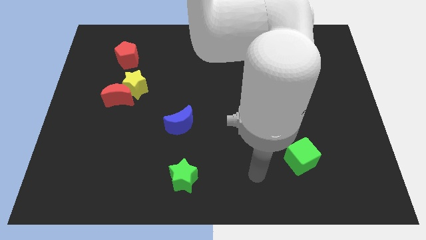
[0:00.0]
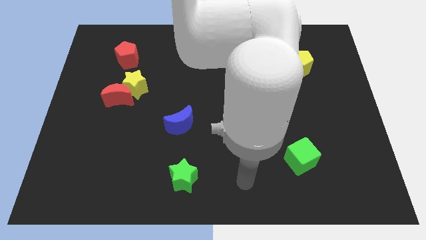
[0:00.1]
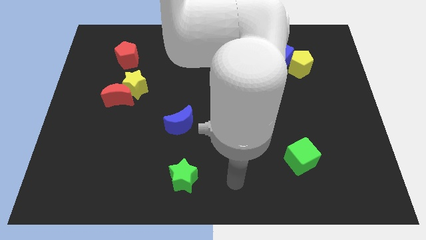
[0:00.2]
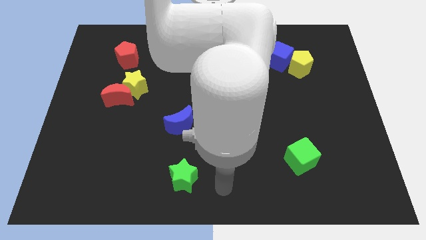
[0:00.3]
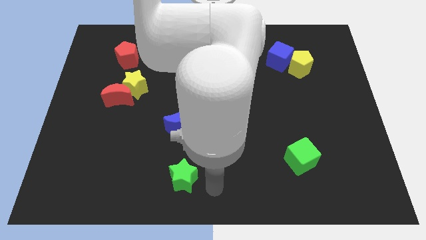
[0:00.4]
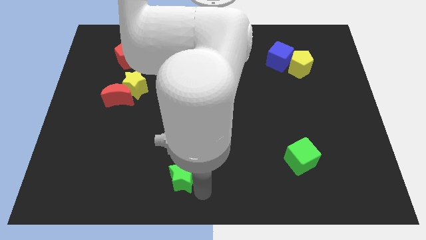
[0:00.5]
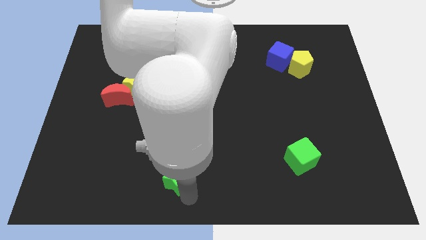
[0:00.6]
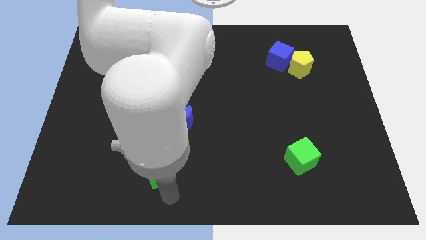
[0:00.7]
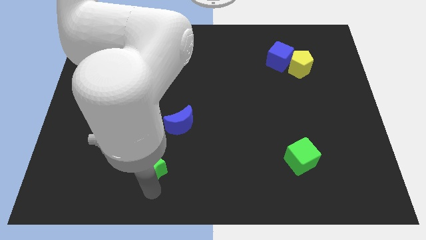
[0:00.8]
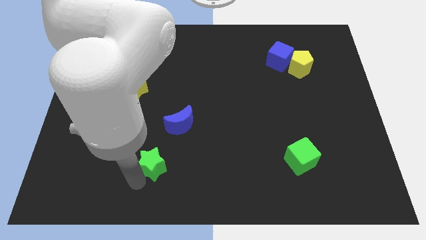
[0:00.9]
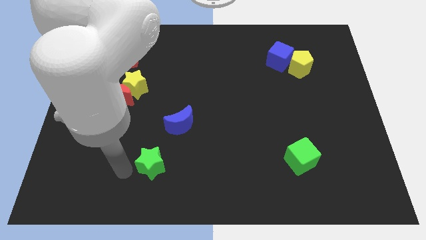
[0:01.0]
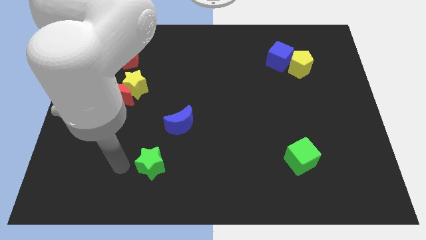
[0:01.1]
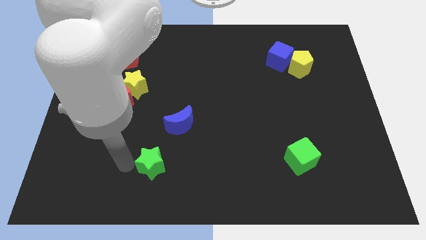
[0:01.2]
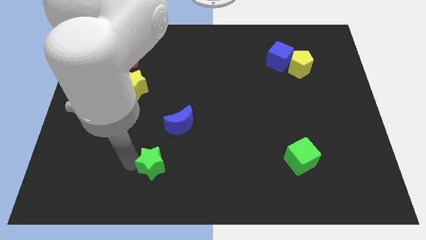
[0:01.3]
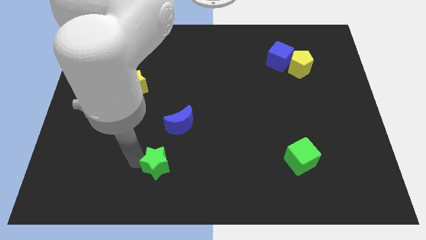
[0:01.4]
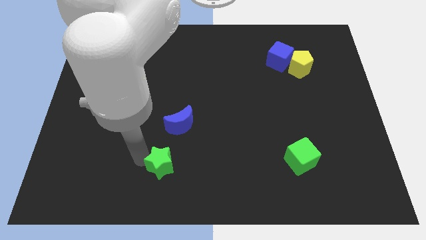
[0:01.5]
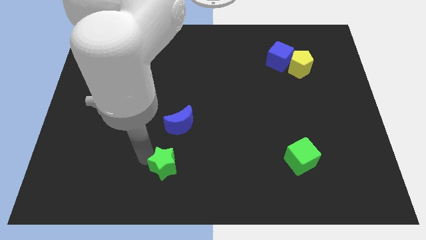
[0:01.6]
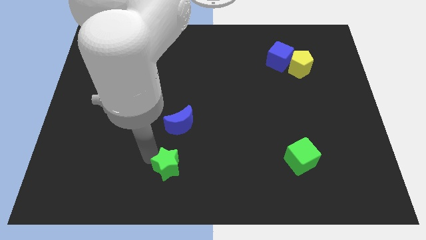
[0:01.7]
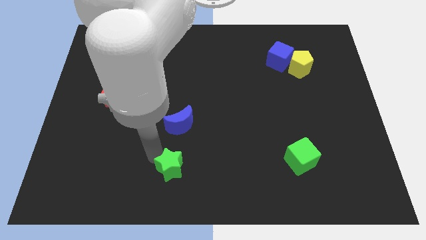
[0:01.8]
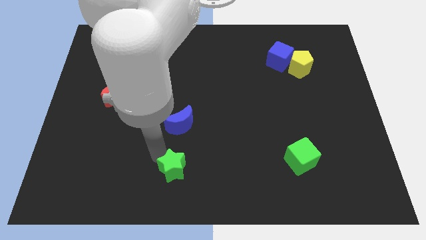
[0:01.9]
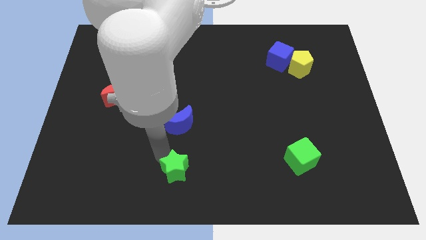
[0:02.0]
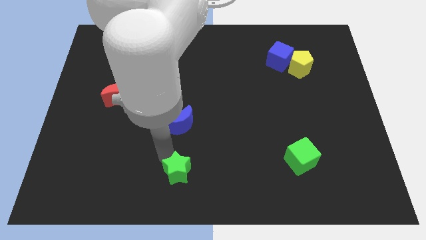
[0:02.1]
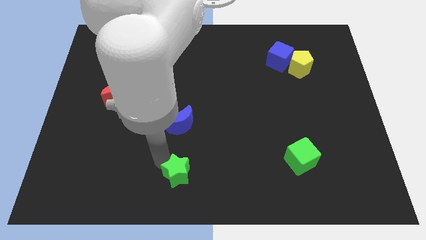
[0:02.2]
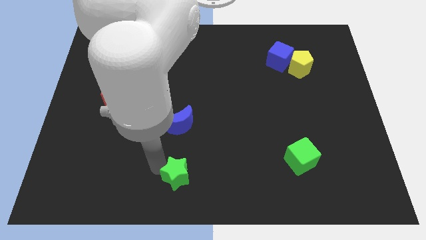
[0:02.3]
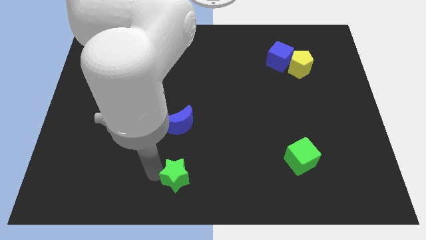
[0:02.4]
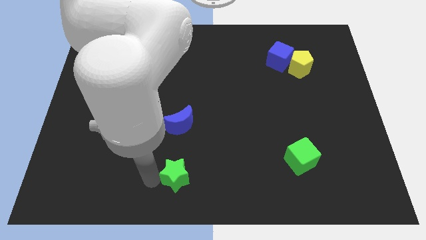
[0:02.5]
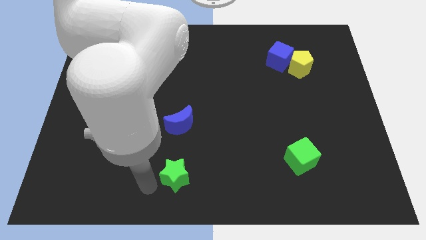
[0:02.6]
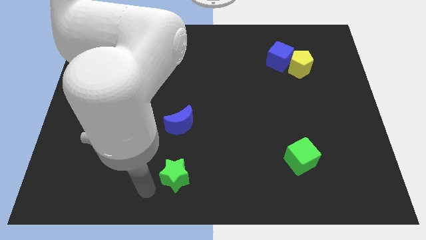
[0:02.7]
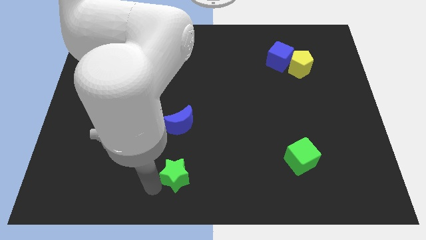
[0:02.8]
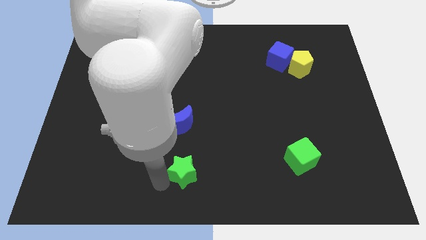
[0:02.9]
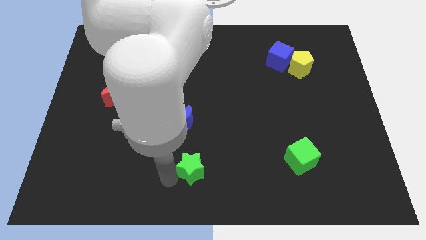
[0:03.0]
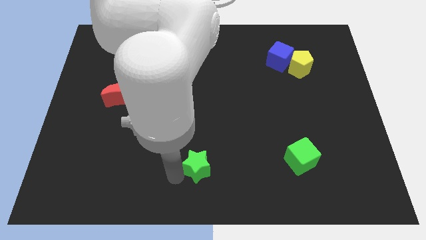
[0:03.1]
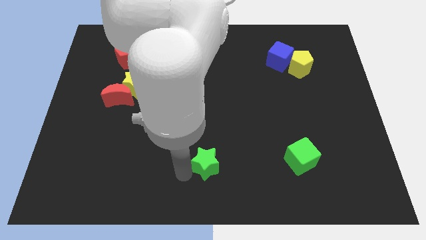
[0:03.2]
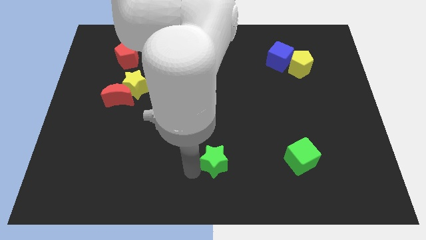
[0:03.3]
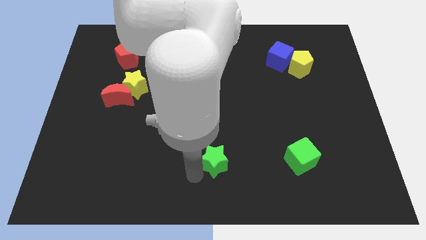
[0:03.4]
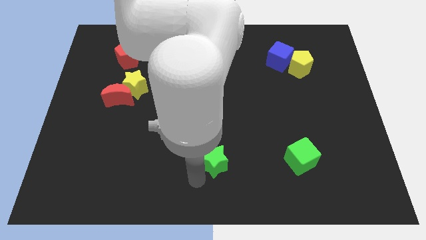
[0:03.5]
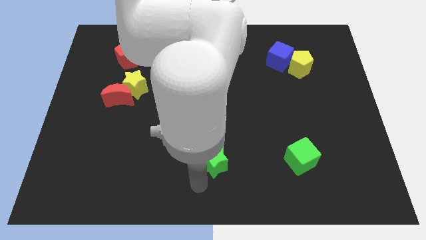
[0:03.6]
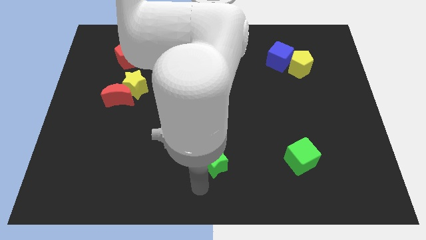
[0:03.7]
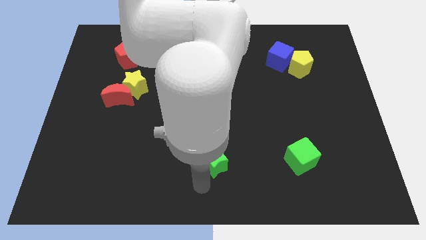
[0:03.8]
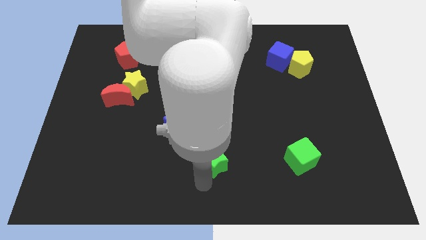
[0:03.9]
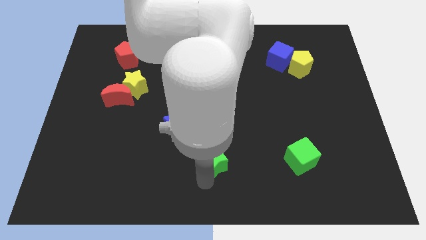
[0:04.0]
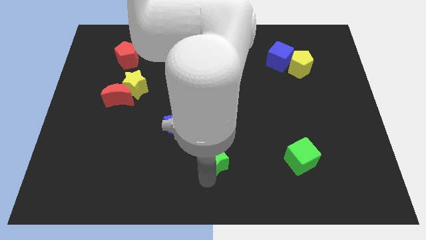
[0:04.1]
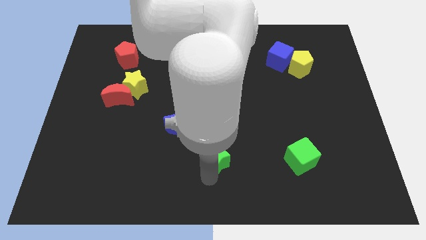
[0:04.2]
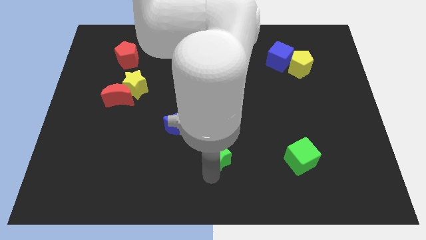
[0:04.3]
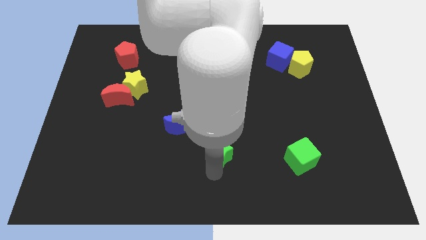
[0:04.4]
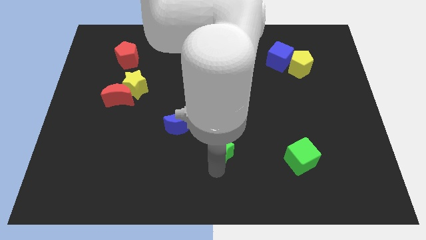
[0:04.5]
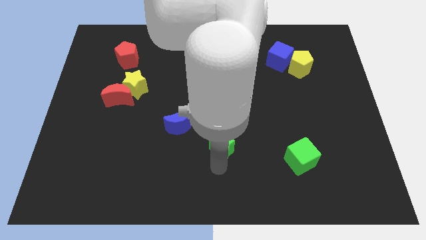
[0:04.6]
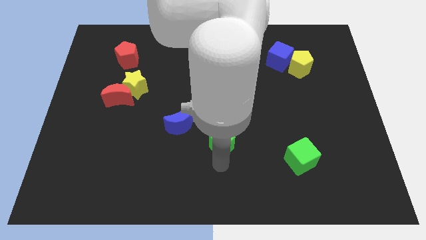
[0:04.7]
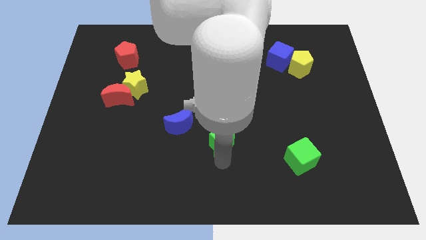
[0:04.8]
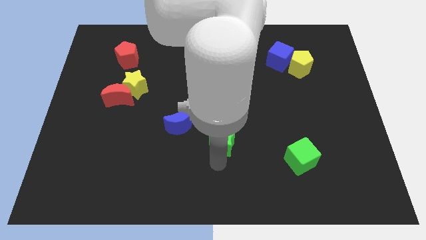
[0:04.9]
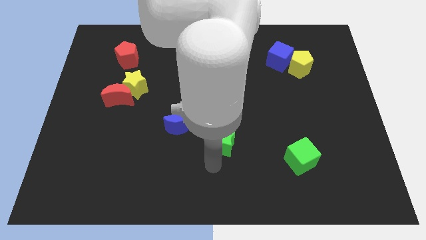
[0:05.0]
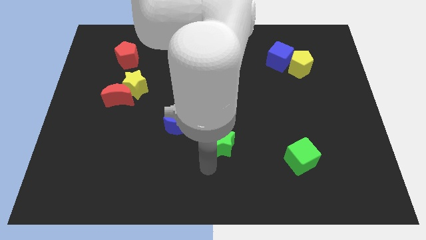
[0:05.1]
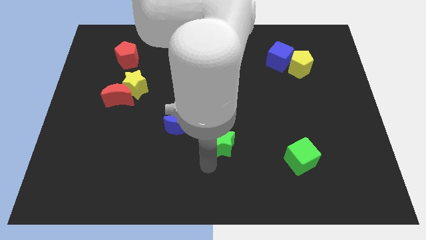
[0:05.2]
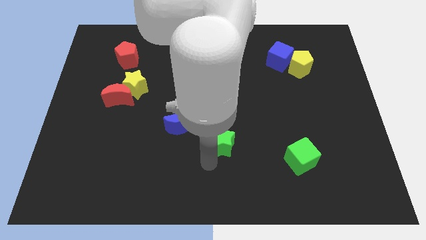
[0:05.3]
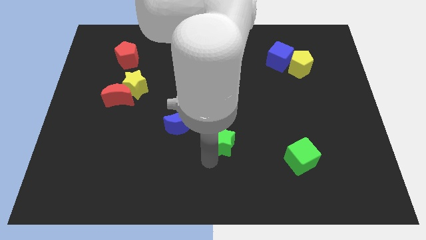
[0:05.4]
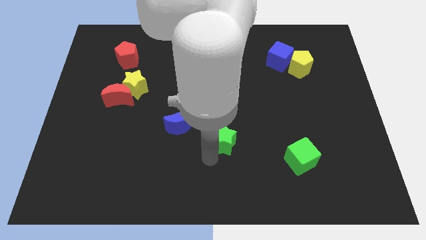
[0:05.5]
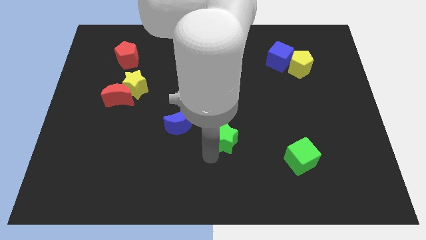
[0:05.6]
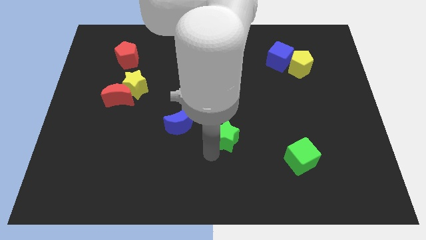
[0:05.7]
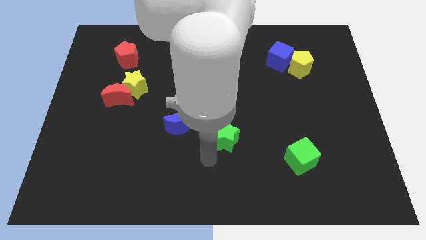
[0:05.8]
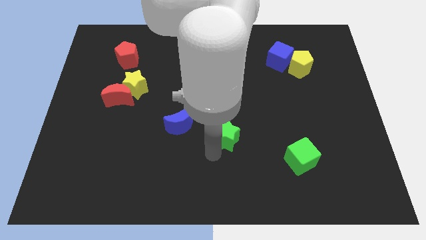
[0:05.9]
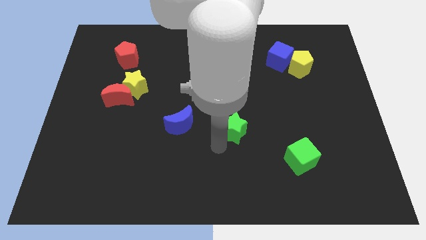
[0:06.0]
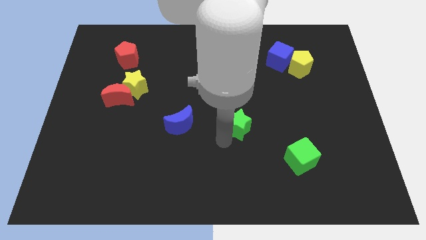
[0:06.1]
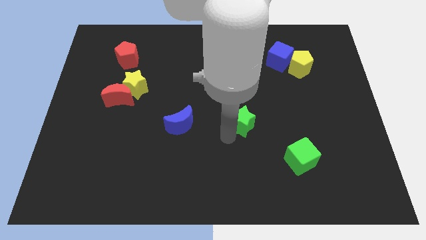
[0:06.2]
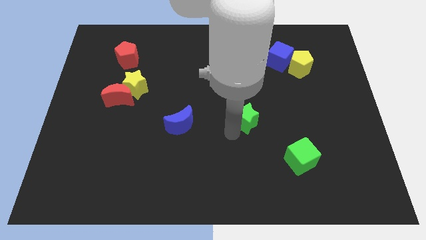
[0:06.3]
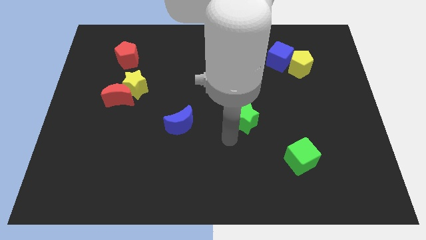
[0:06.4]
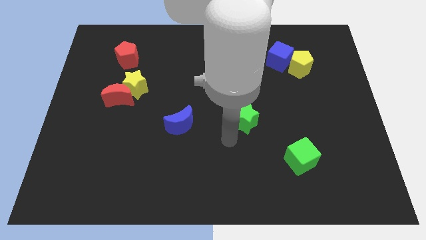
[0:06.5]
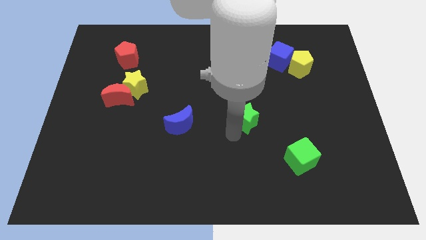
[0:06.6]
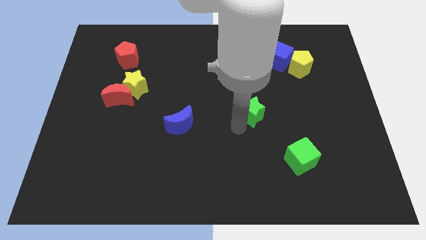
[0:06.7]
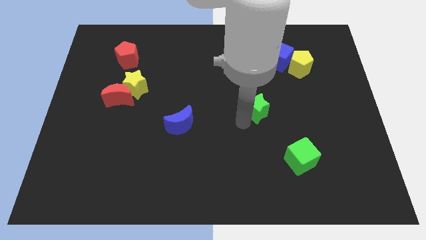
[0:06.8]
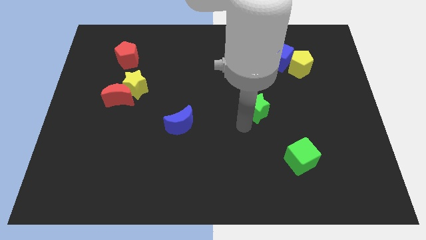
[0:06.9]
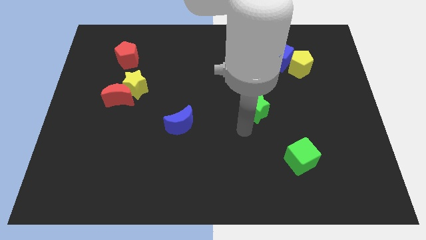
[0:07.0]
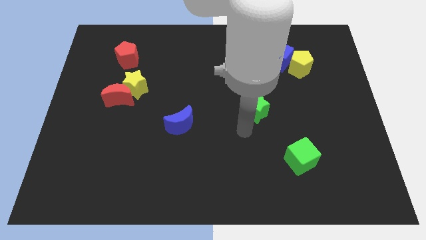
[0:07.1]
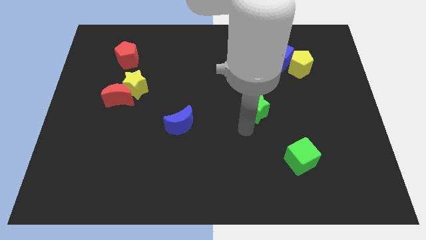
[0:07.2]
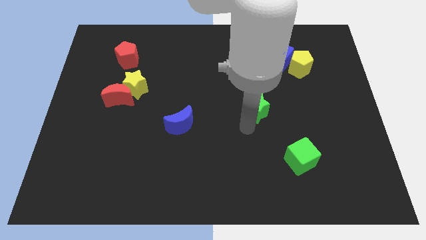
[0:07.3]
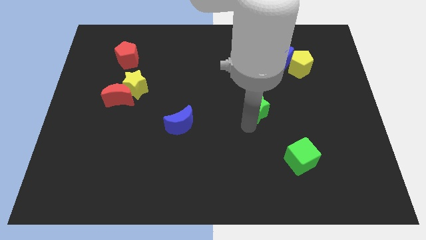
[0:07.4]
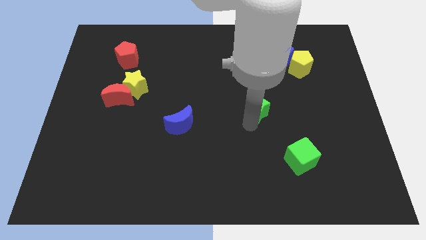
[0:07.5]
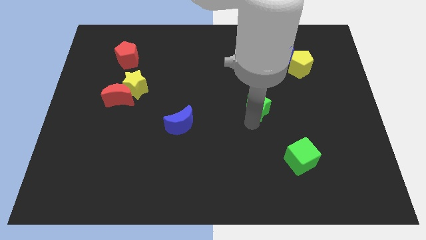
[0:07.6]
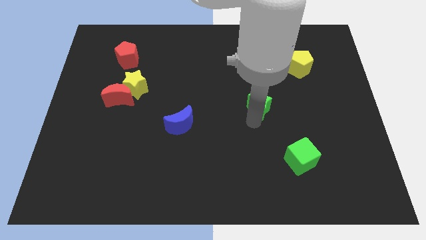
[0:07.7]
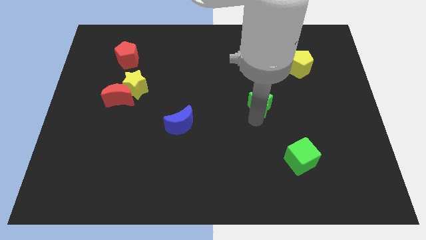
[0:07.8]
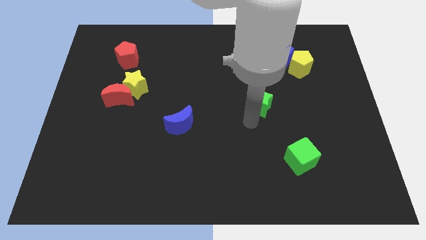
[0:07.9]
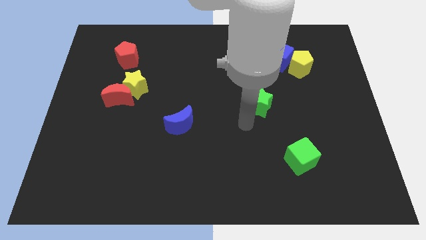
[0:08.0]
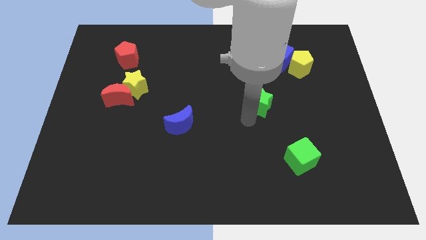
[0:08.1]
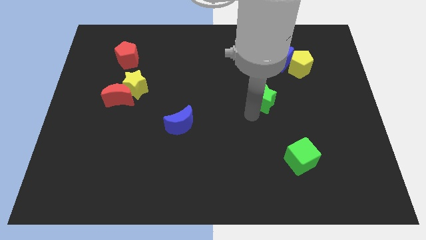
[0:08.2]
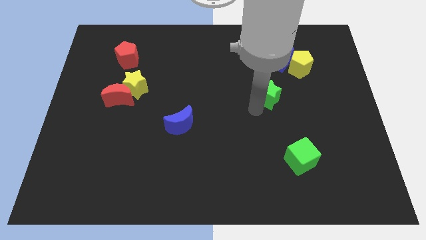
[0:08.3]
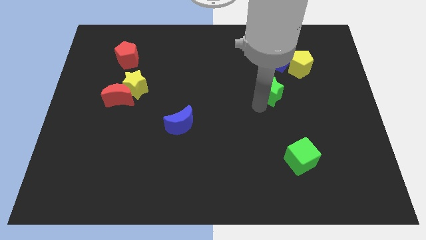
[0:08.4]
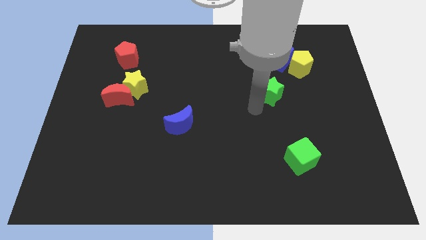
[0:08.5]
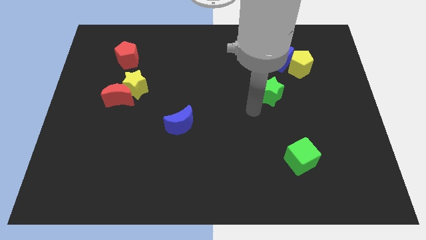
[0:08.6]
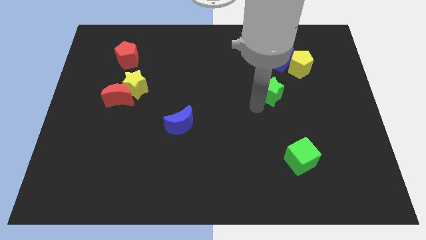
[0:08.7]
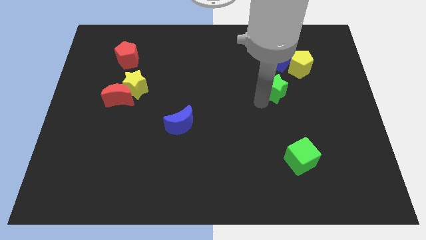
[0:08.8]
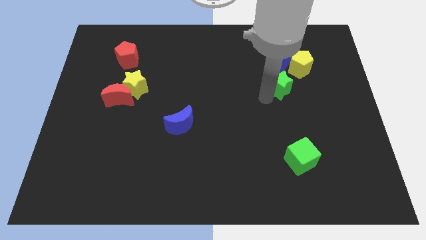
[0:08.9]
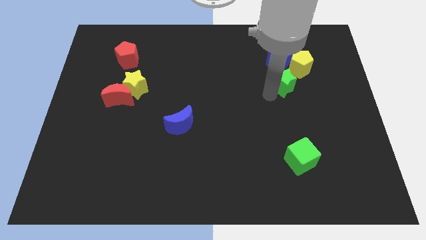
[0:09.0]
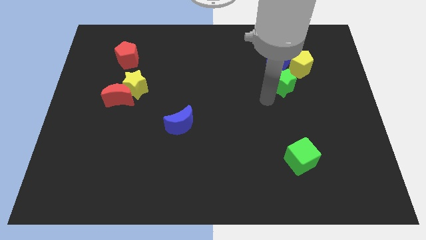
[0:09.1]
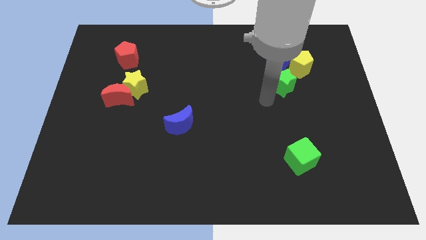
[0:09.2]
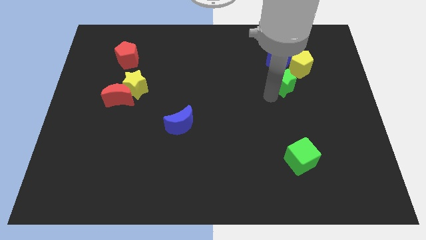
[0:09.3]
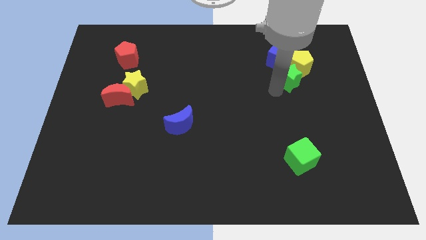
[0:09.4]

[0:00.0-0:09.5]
push the green star close to the yellow pentagon
